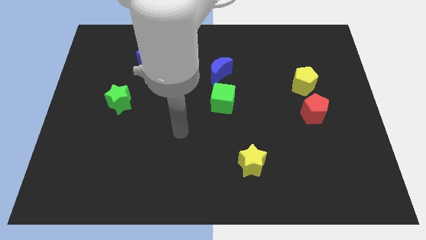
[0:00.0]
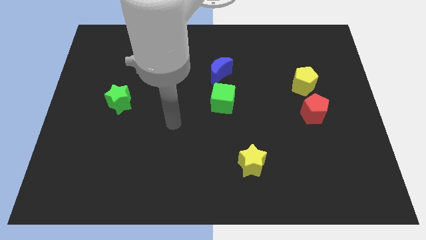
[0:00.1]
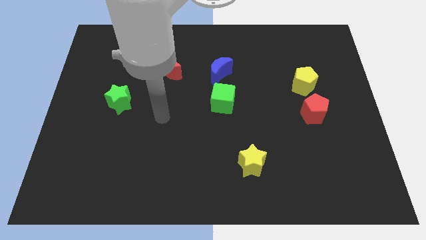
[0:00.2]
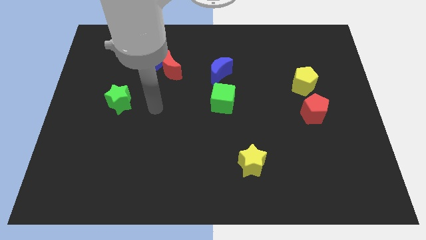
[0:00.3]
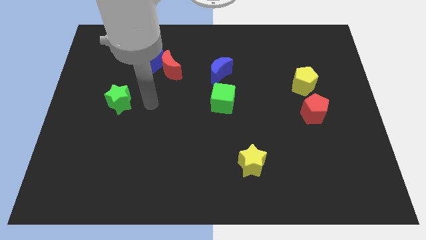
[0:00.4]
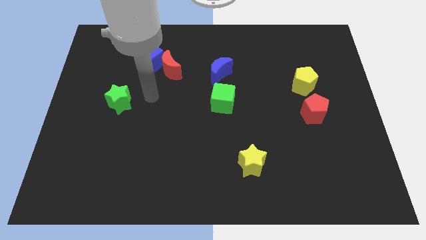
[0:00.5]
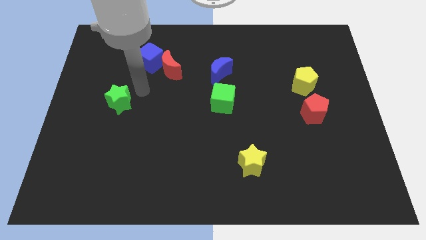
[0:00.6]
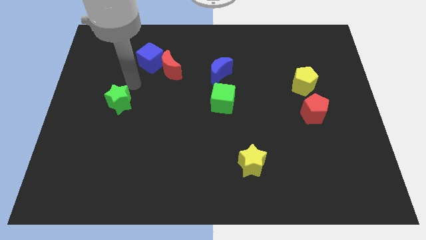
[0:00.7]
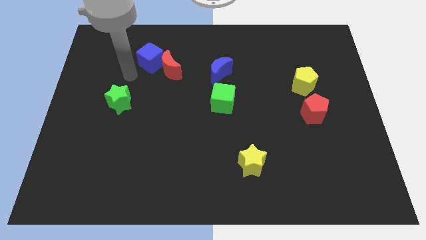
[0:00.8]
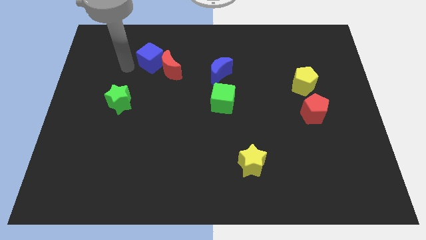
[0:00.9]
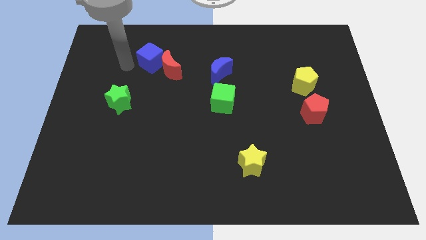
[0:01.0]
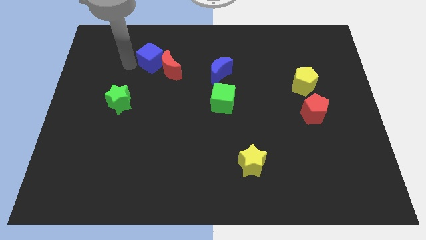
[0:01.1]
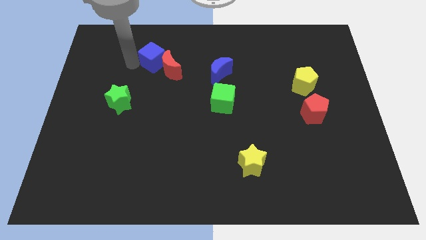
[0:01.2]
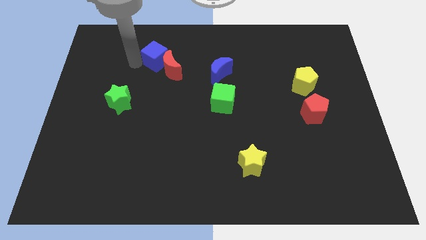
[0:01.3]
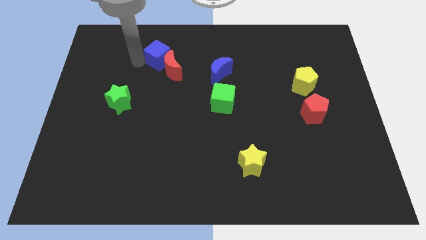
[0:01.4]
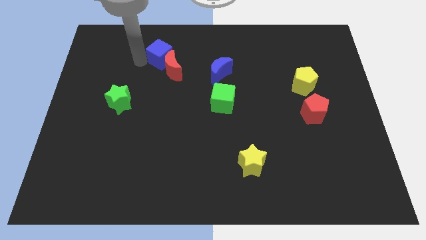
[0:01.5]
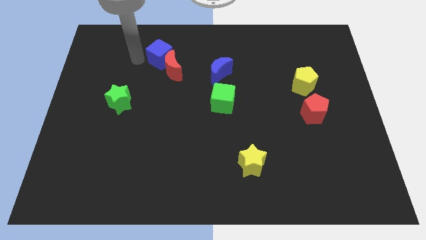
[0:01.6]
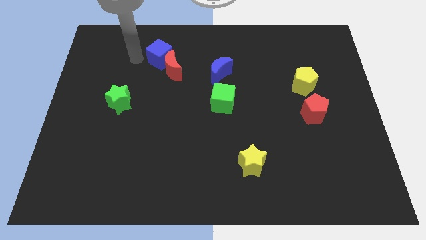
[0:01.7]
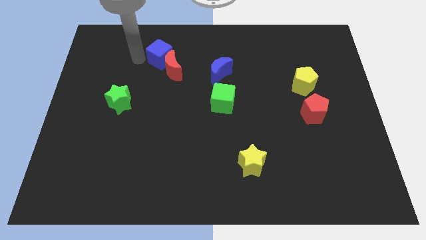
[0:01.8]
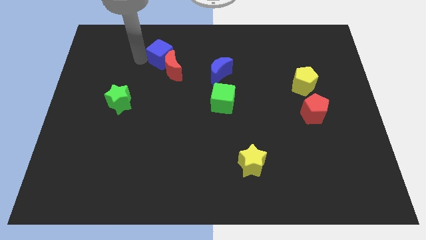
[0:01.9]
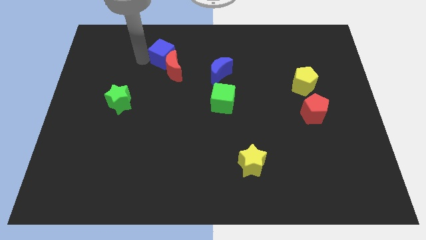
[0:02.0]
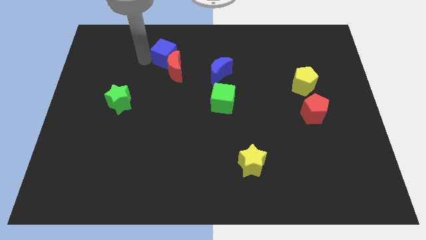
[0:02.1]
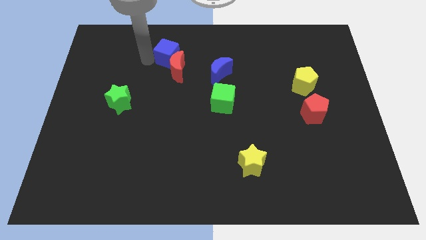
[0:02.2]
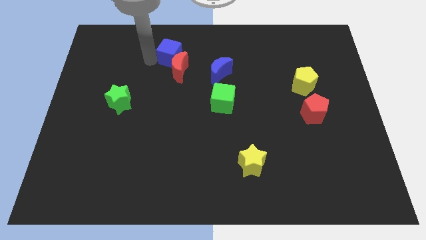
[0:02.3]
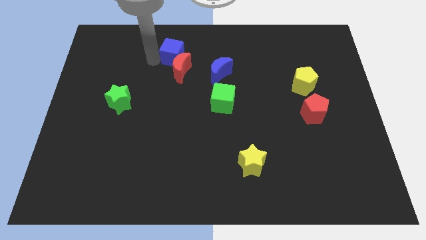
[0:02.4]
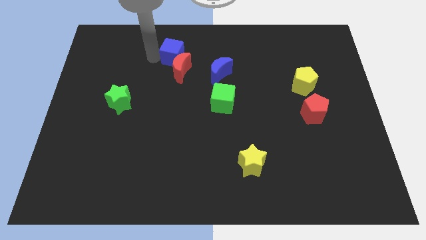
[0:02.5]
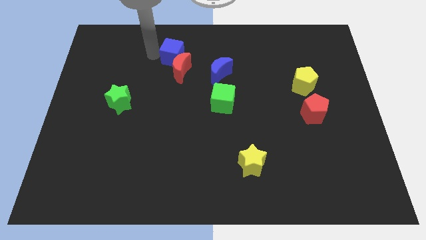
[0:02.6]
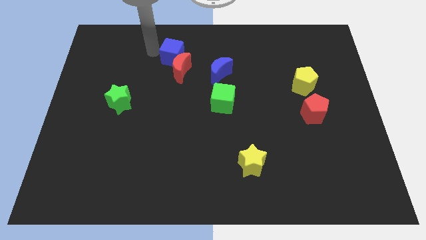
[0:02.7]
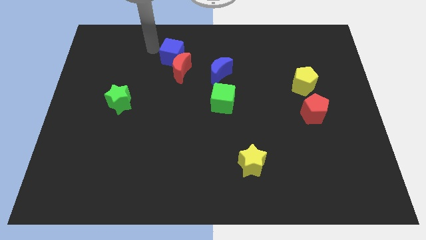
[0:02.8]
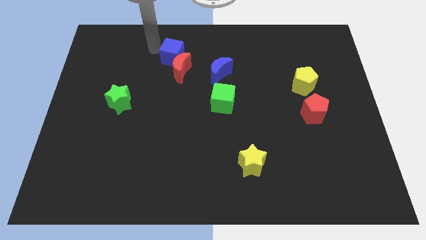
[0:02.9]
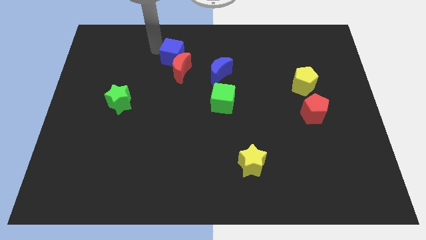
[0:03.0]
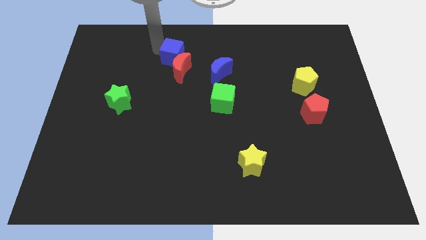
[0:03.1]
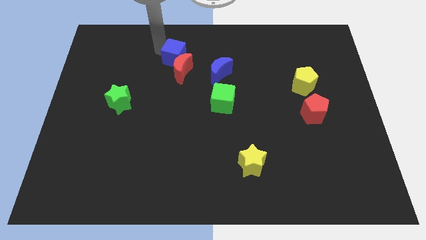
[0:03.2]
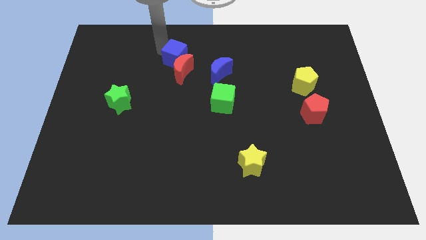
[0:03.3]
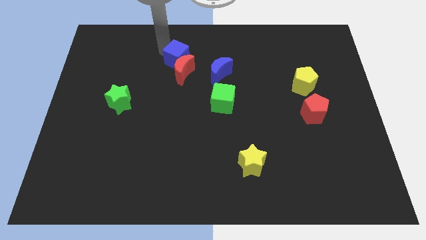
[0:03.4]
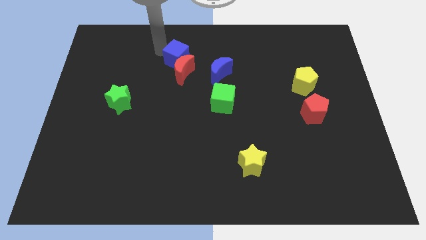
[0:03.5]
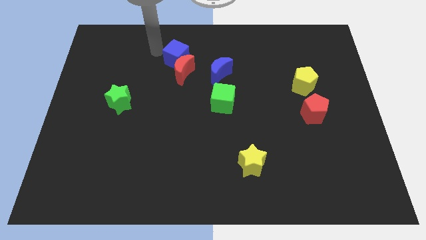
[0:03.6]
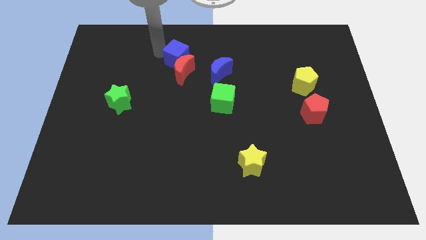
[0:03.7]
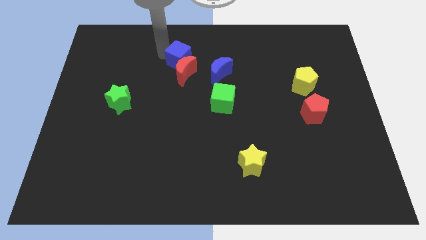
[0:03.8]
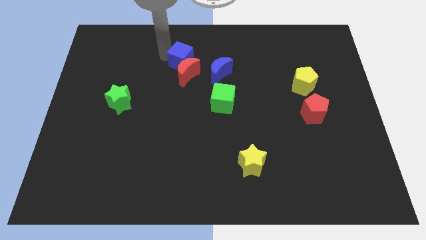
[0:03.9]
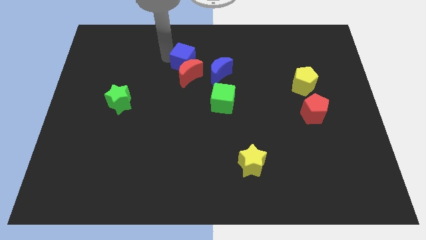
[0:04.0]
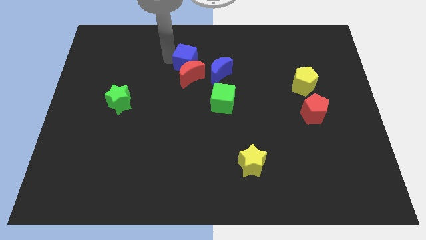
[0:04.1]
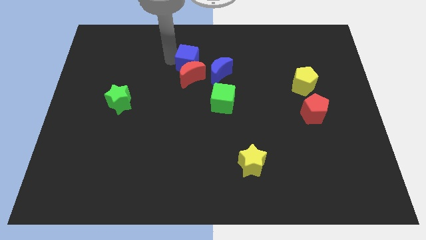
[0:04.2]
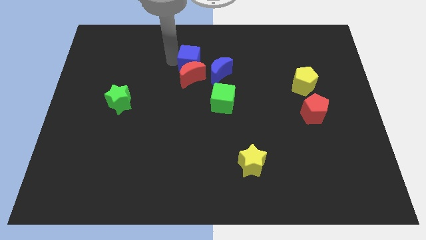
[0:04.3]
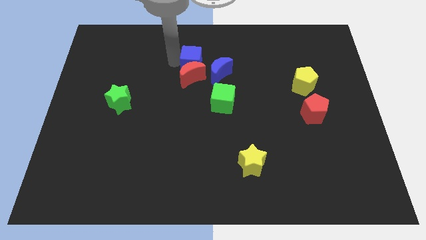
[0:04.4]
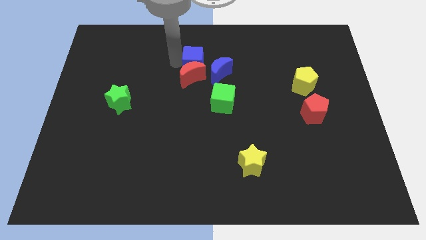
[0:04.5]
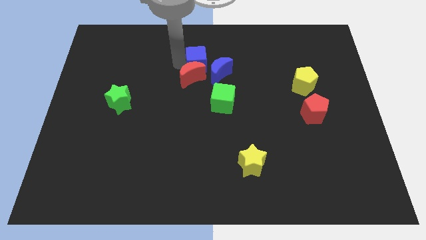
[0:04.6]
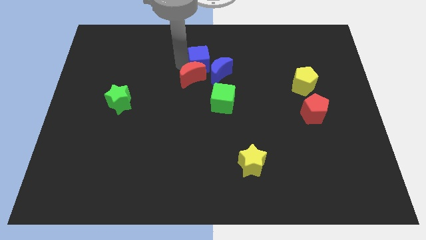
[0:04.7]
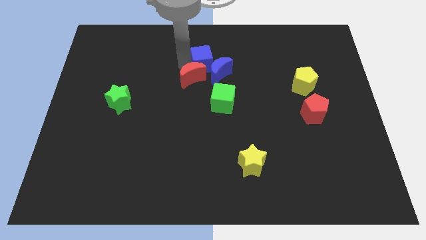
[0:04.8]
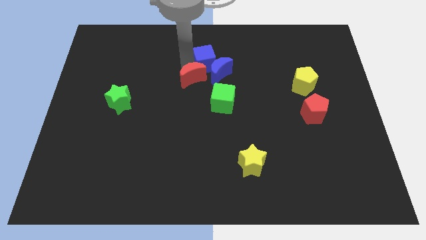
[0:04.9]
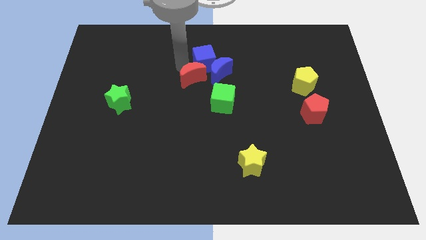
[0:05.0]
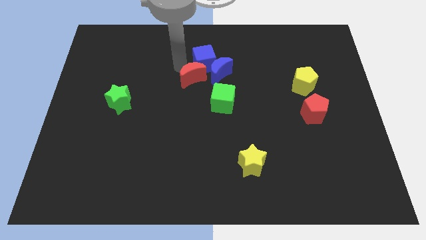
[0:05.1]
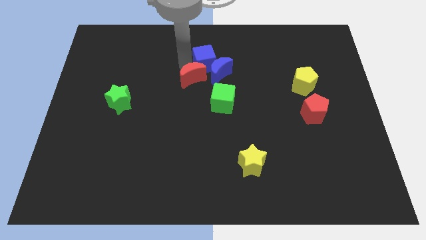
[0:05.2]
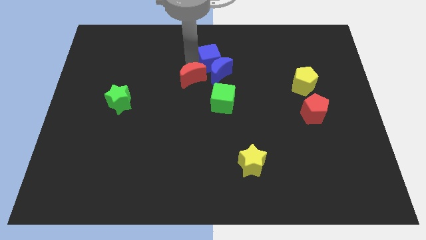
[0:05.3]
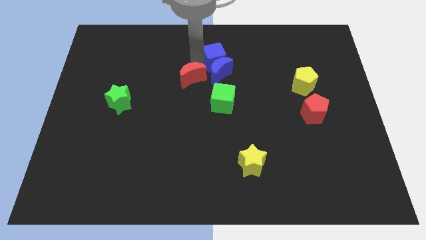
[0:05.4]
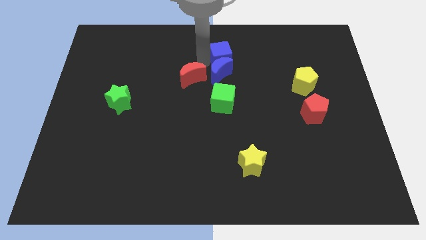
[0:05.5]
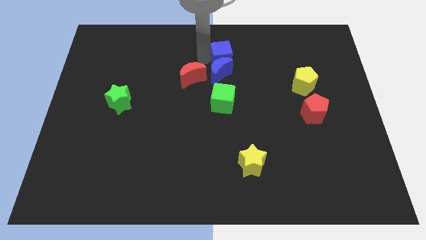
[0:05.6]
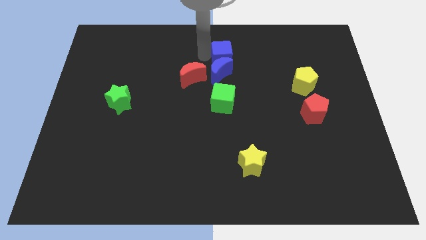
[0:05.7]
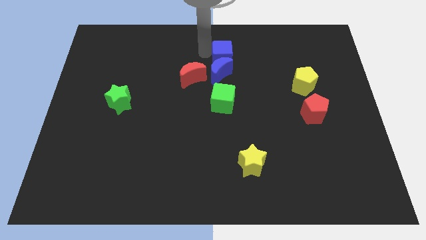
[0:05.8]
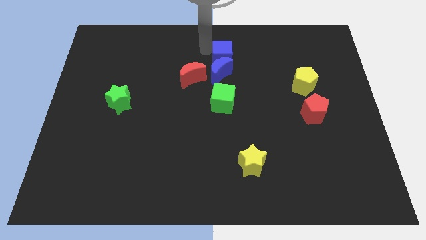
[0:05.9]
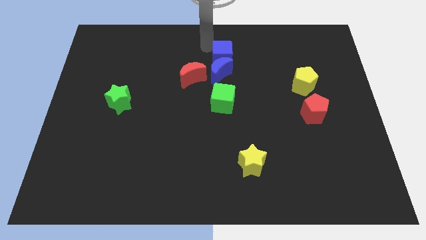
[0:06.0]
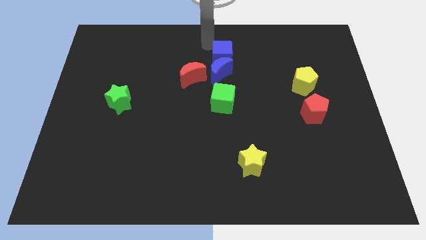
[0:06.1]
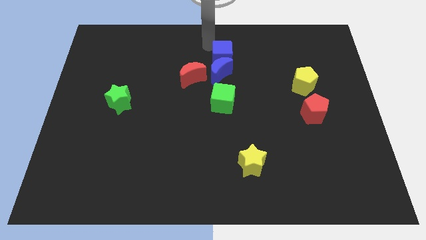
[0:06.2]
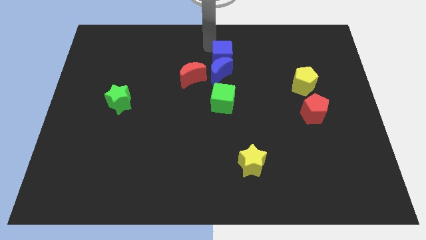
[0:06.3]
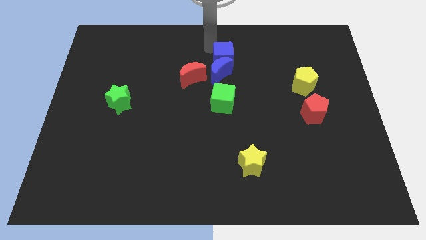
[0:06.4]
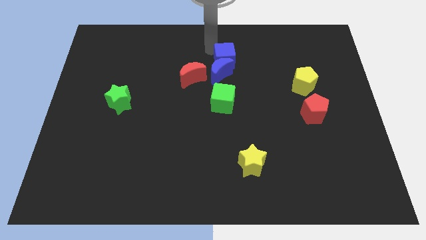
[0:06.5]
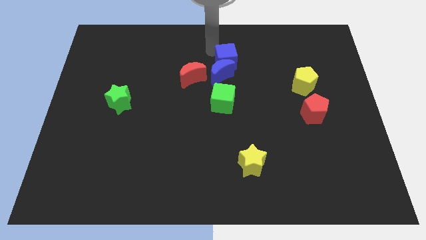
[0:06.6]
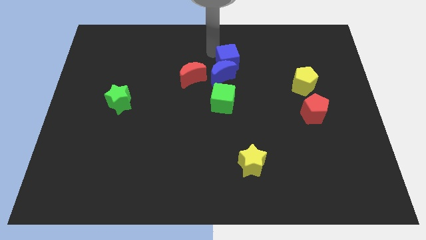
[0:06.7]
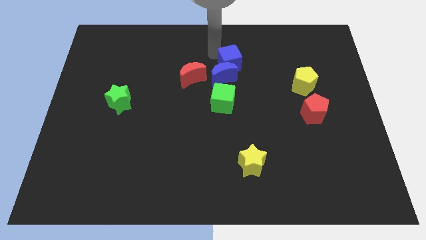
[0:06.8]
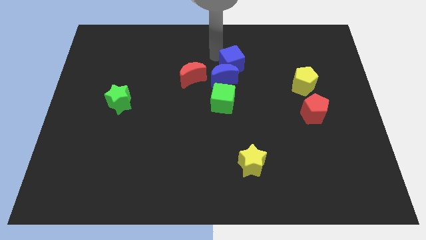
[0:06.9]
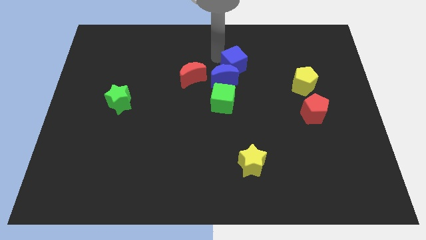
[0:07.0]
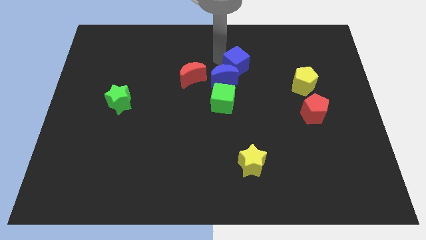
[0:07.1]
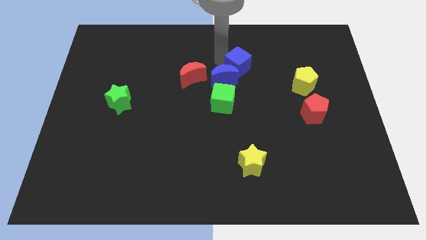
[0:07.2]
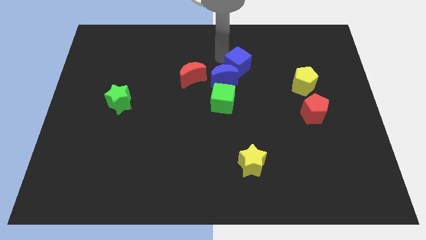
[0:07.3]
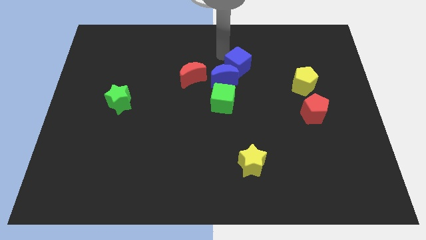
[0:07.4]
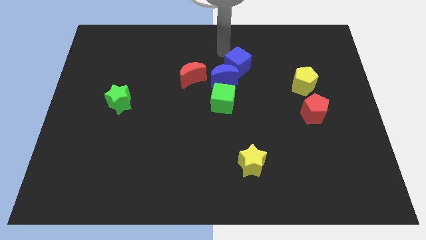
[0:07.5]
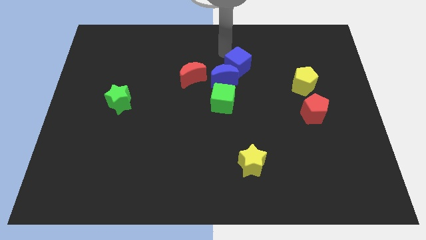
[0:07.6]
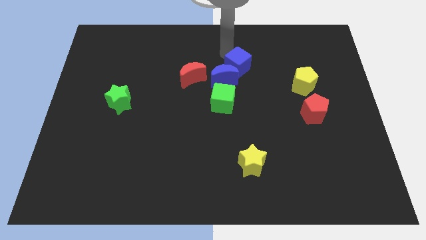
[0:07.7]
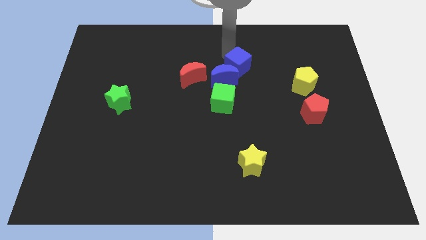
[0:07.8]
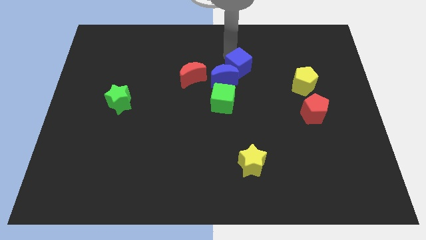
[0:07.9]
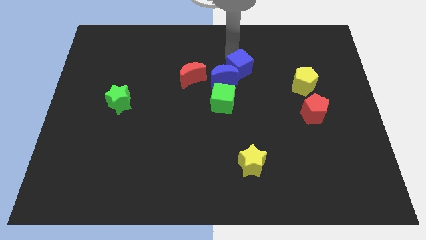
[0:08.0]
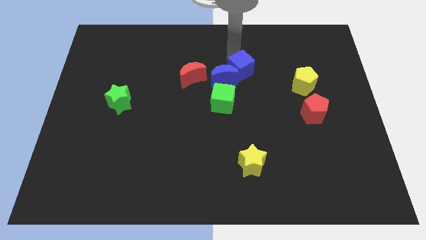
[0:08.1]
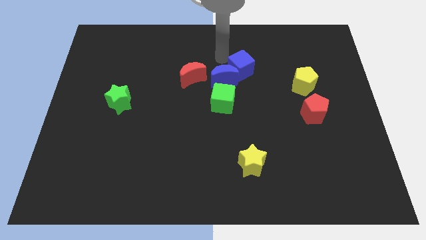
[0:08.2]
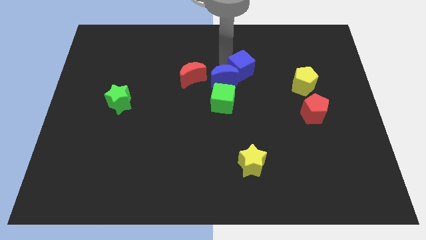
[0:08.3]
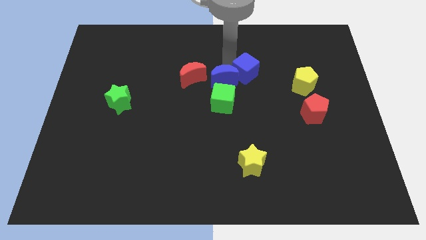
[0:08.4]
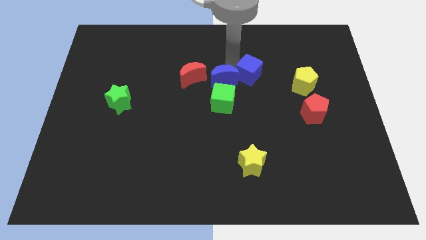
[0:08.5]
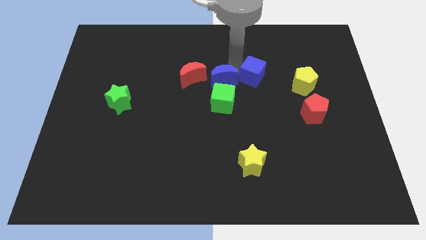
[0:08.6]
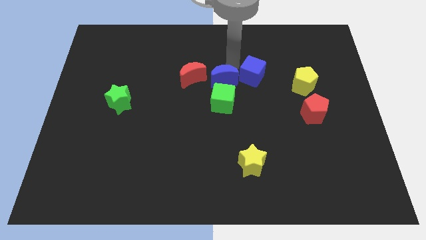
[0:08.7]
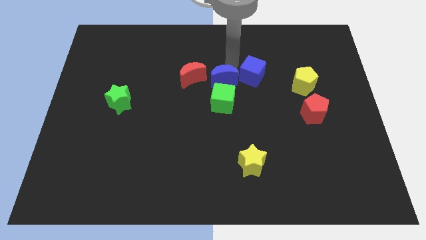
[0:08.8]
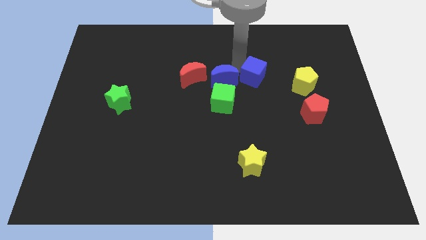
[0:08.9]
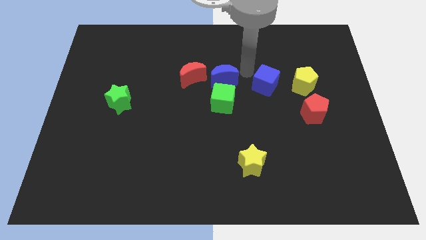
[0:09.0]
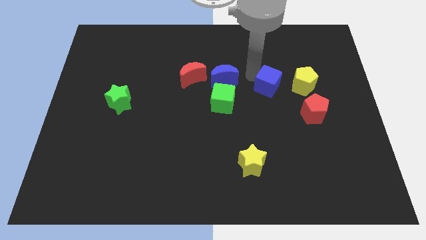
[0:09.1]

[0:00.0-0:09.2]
put the blue cube diagonally up and to the left of the red pentagon
